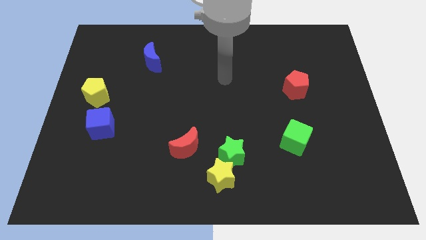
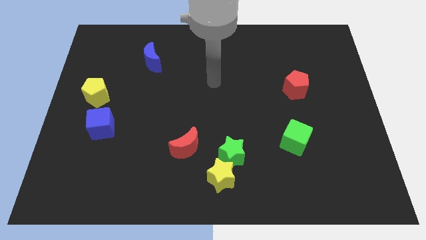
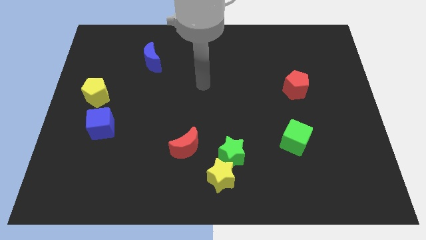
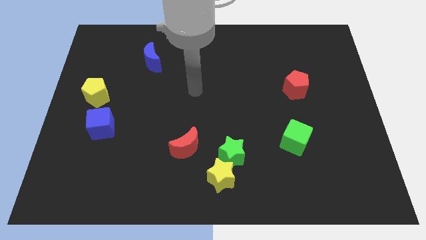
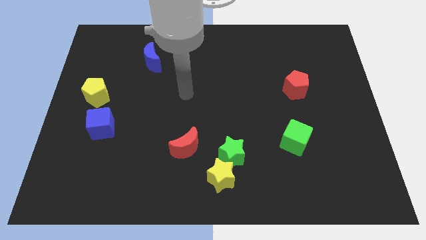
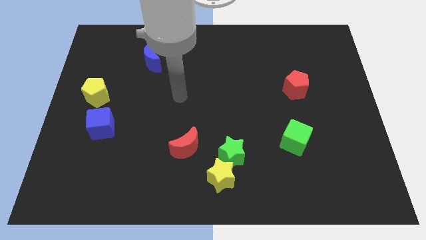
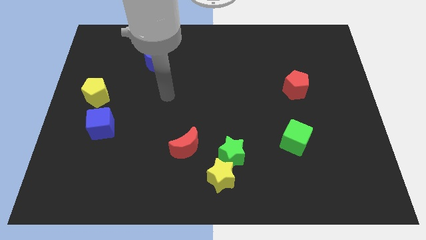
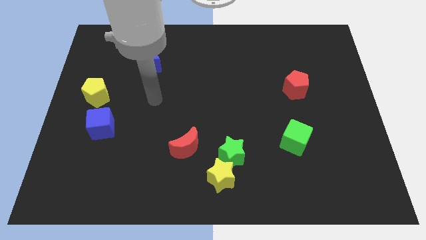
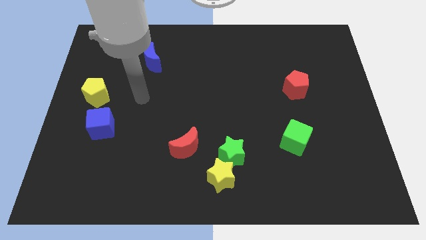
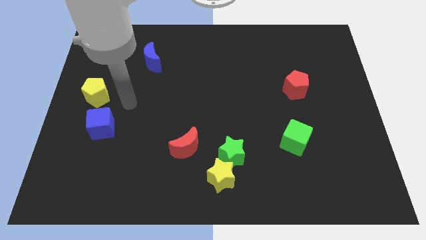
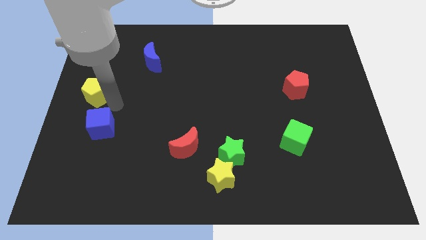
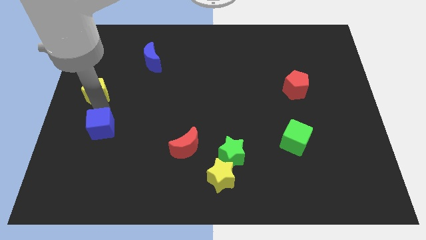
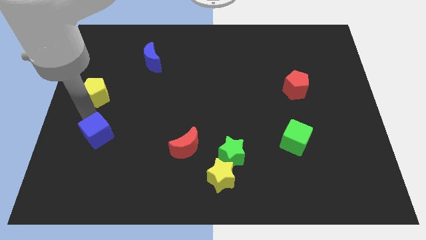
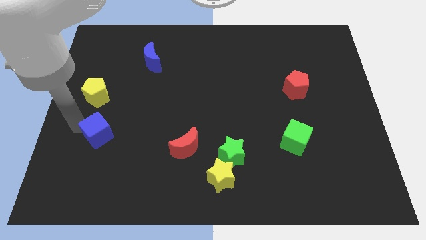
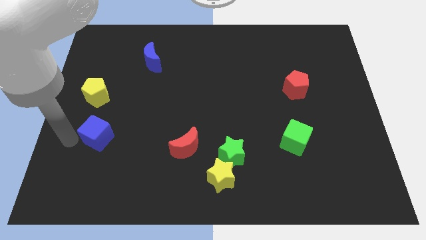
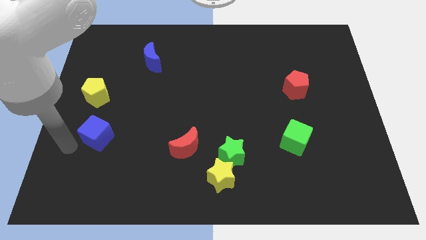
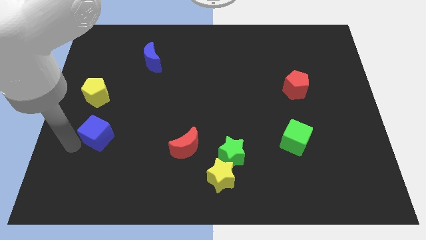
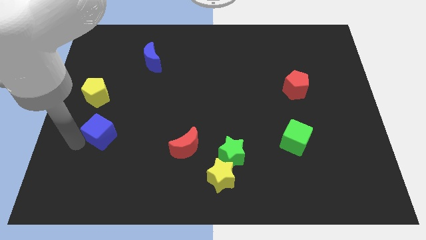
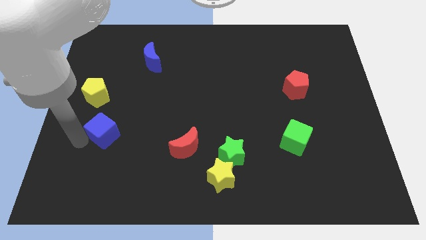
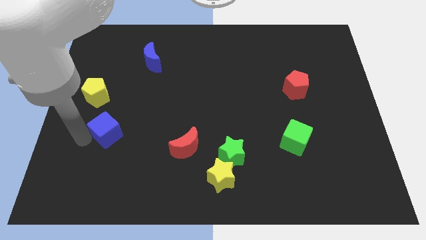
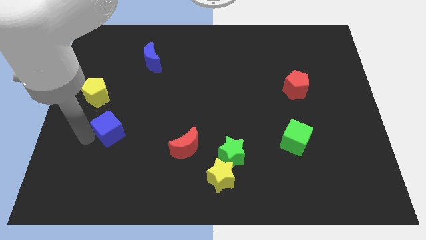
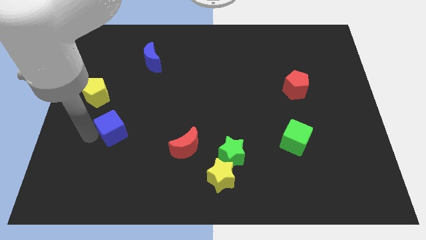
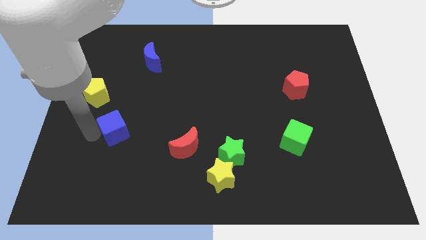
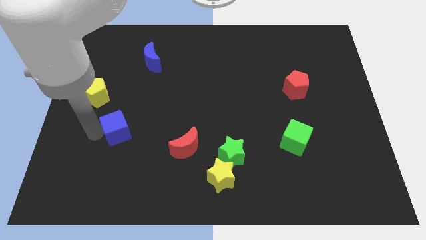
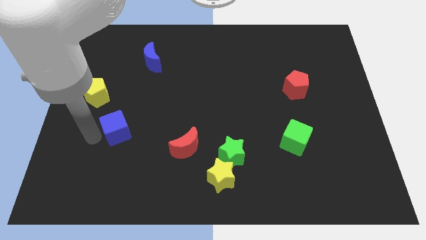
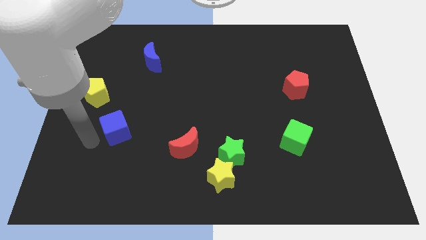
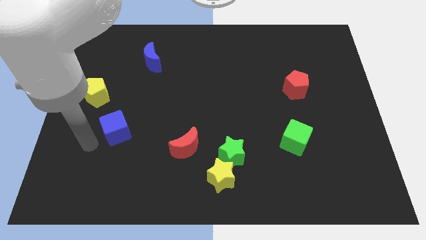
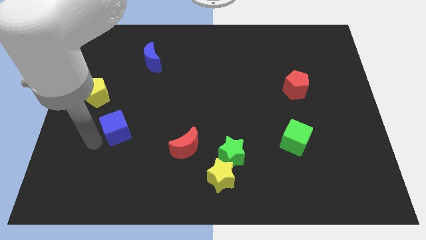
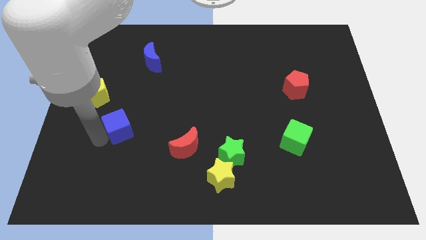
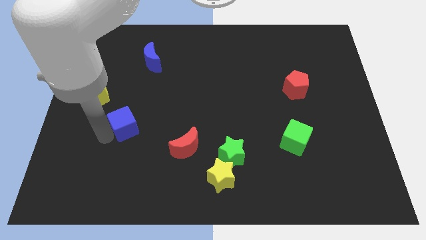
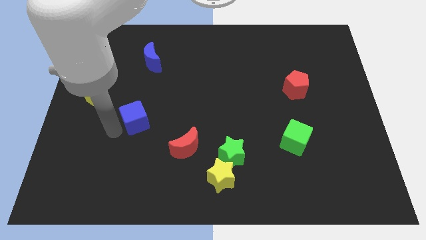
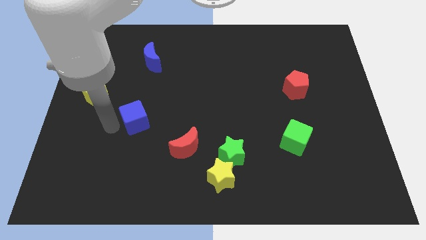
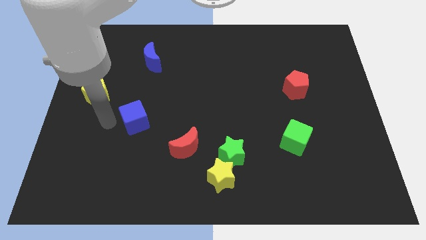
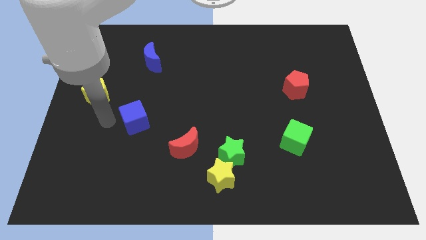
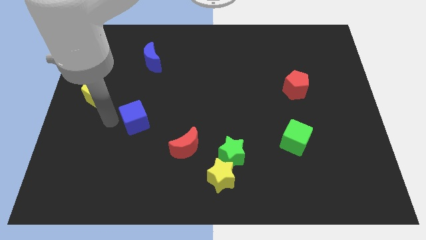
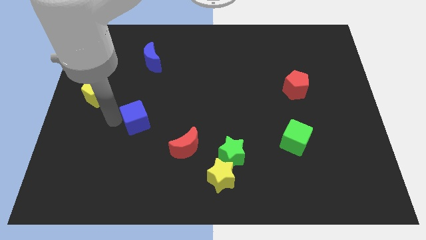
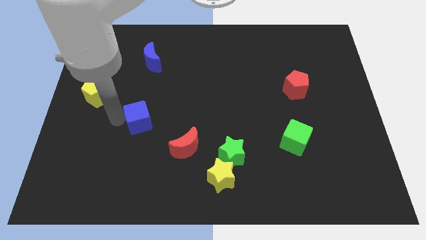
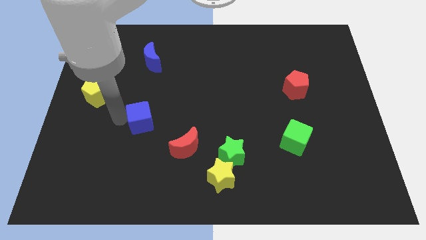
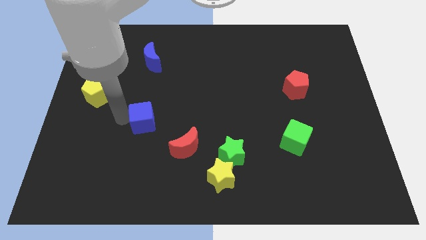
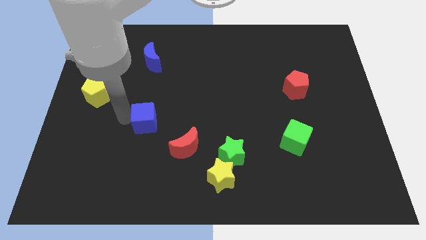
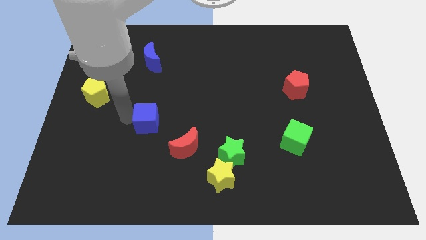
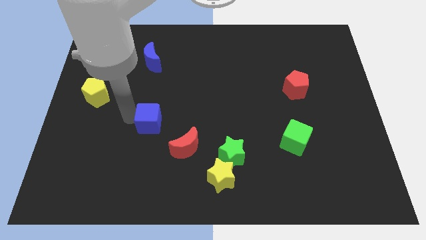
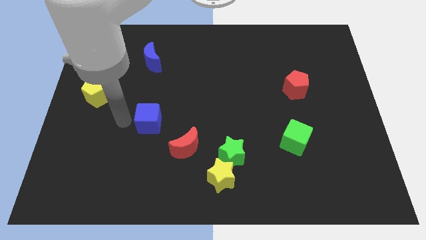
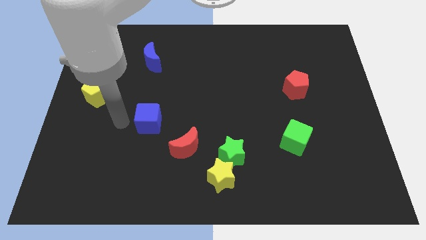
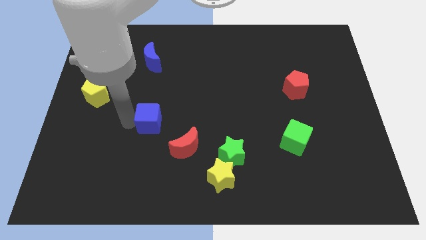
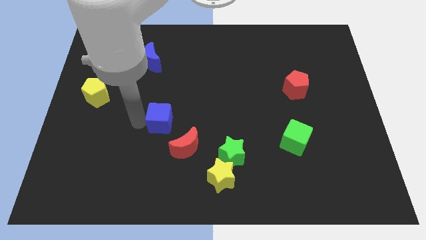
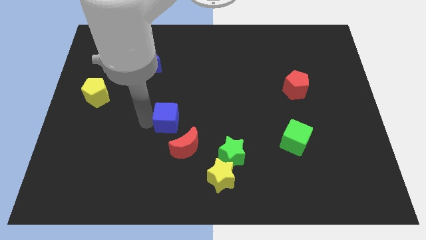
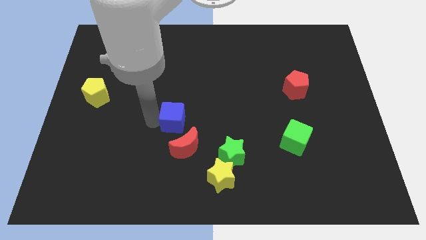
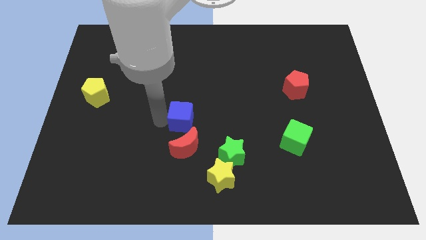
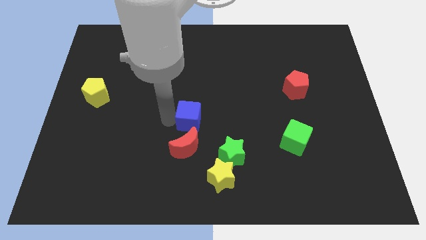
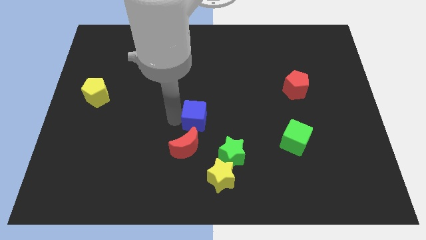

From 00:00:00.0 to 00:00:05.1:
move the blue cube to the right

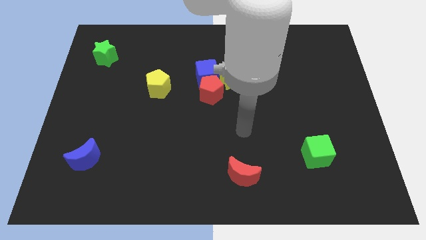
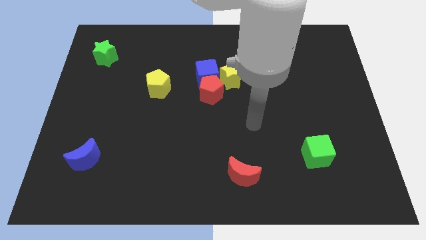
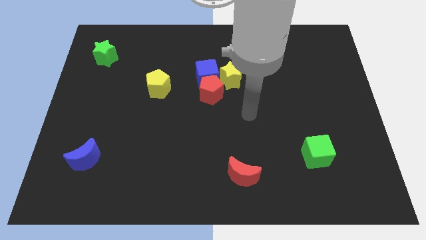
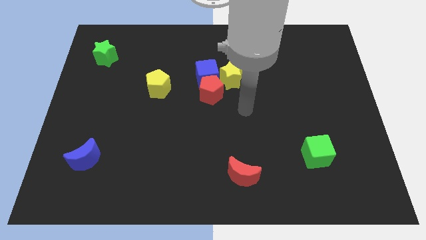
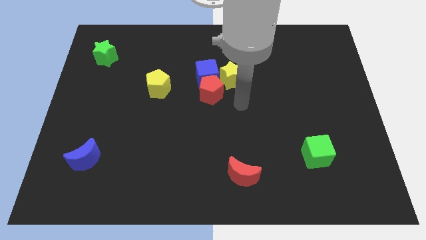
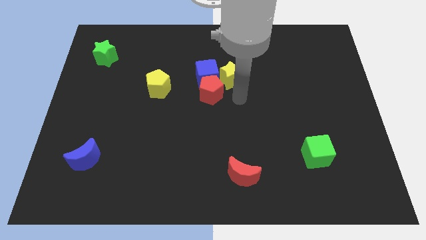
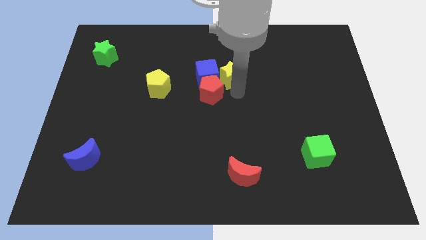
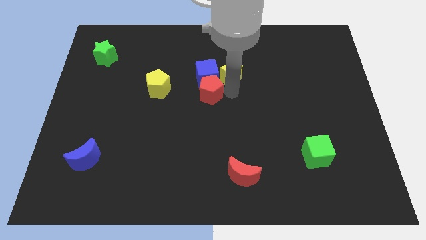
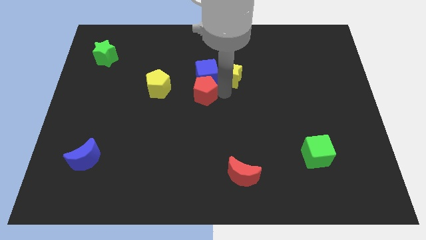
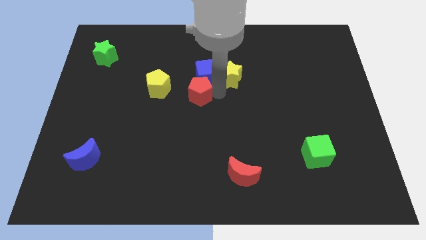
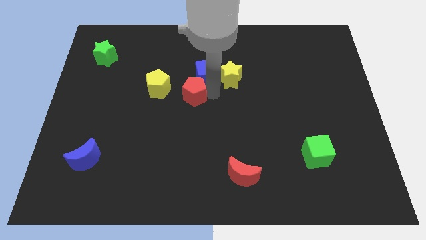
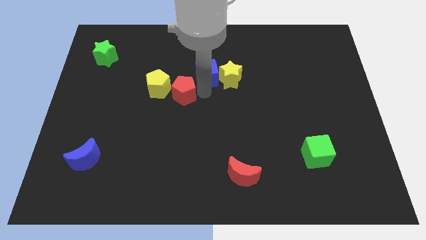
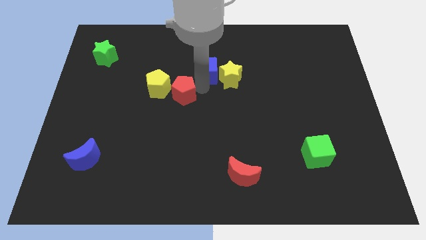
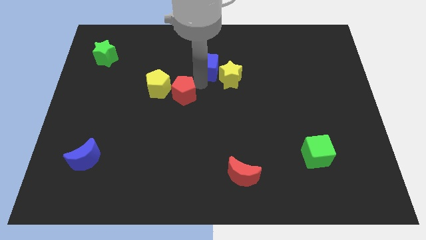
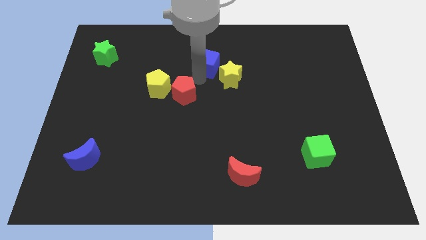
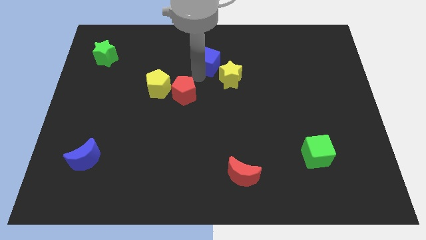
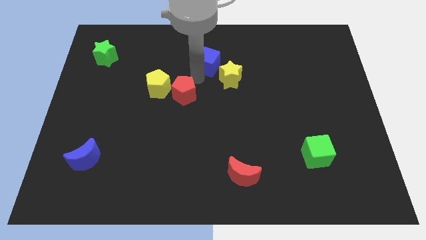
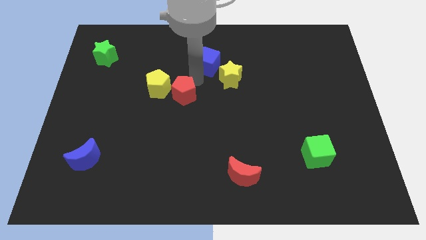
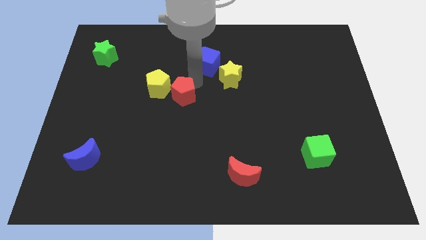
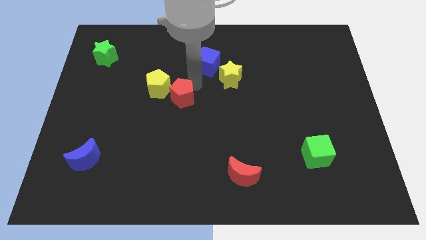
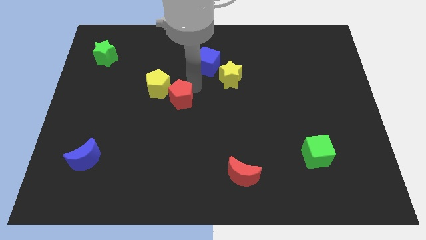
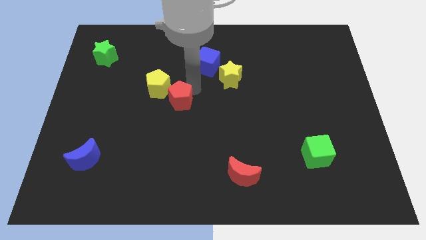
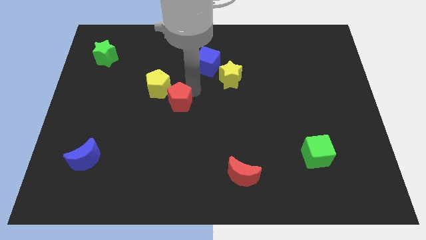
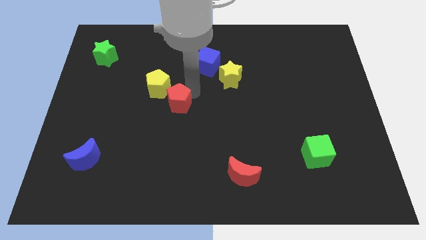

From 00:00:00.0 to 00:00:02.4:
slide the red pentagon downwards and left diagonally a little

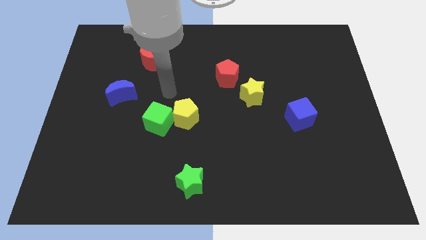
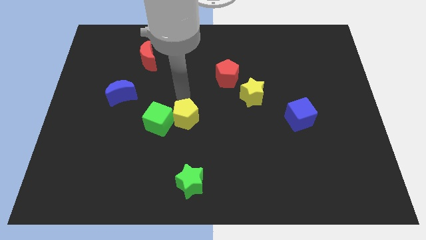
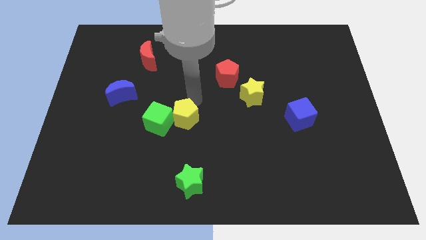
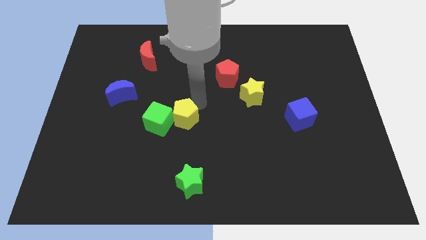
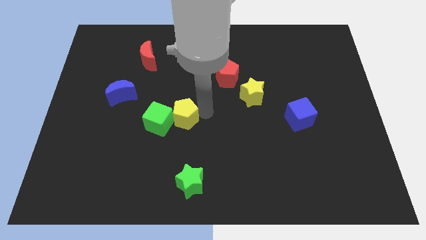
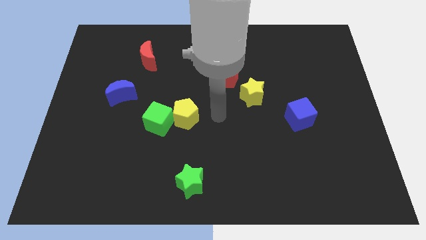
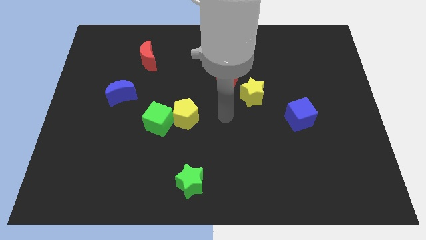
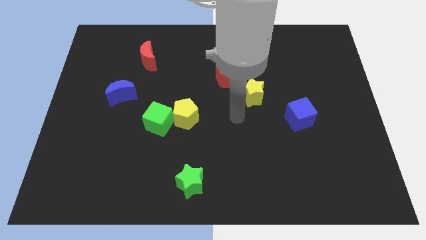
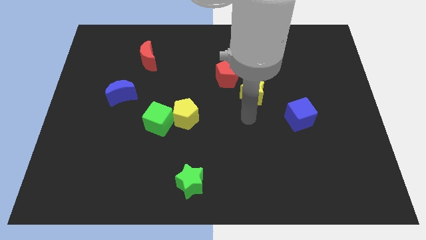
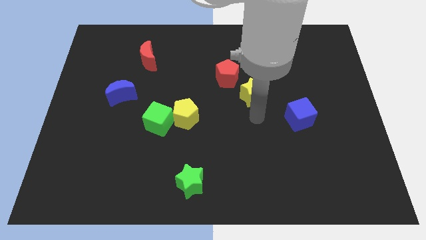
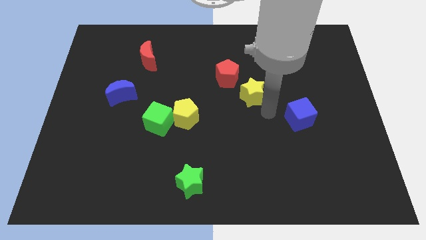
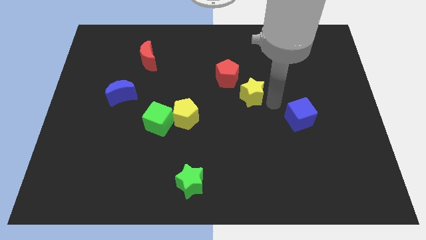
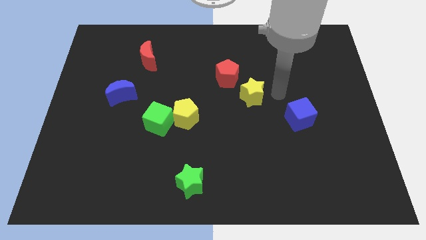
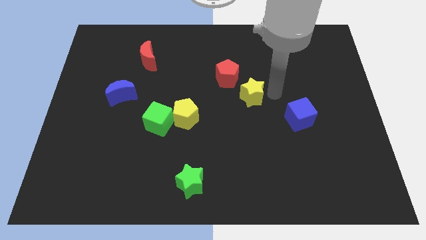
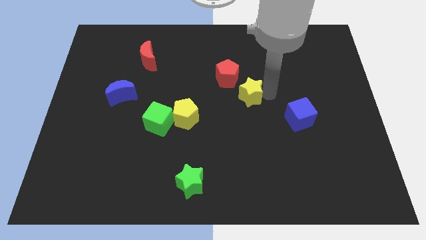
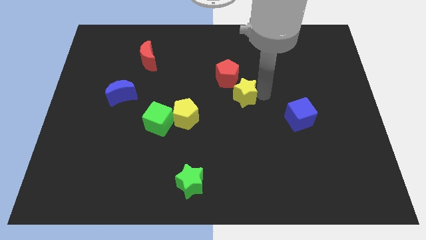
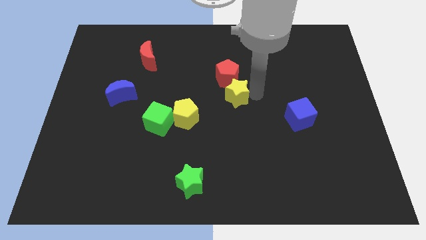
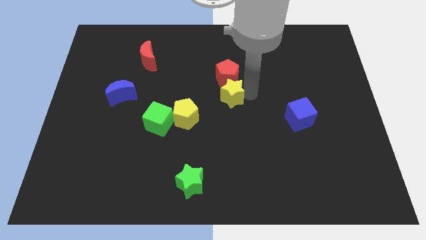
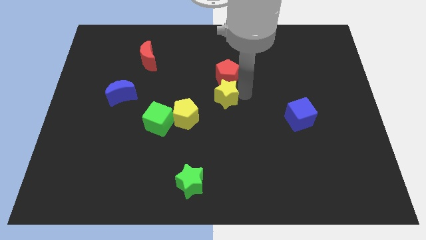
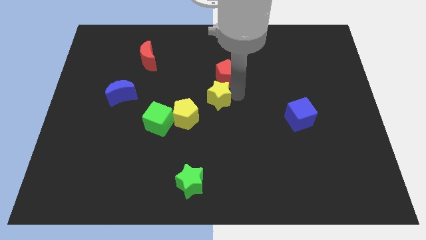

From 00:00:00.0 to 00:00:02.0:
move the yellow star somewhat to the left
